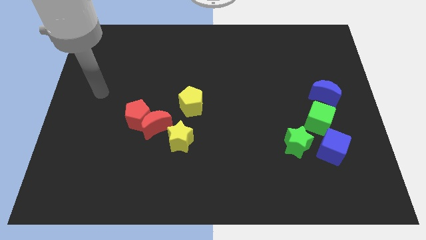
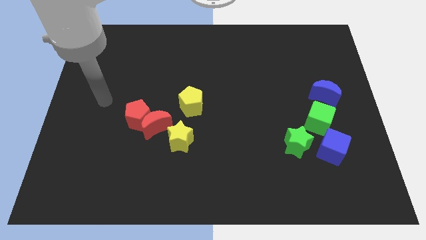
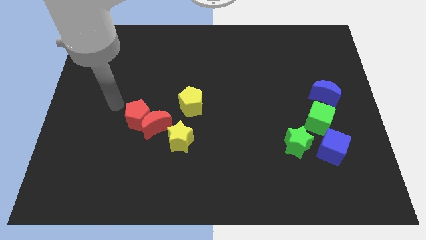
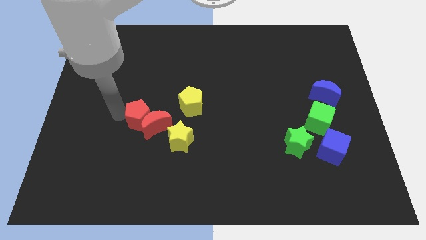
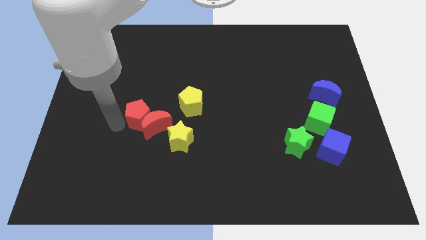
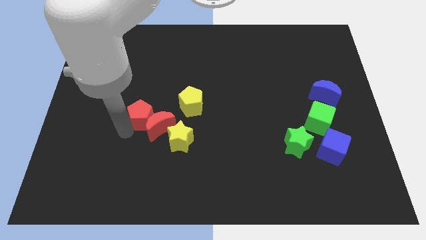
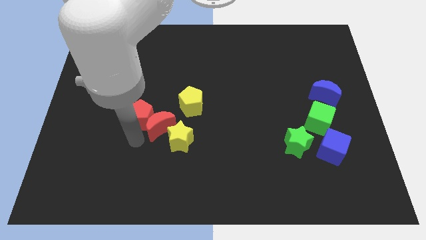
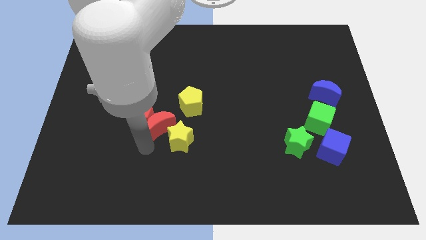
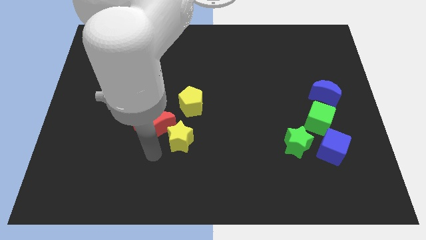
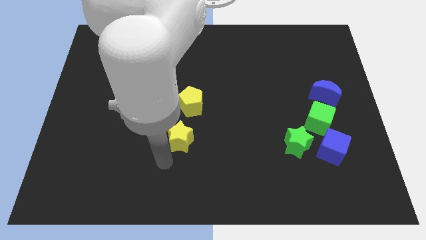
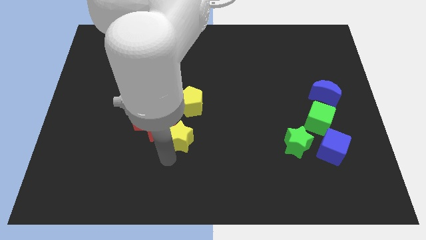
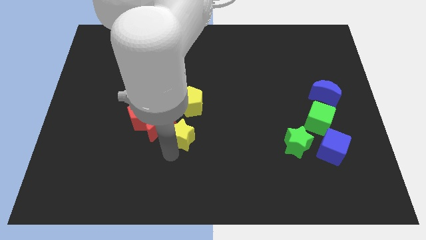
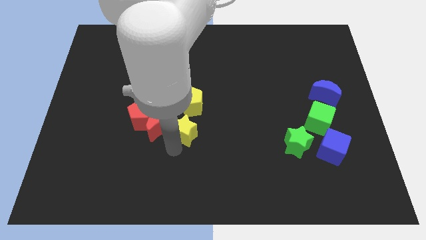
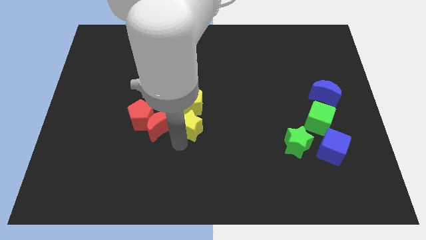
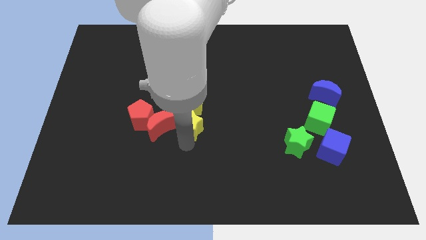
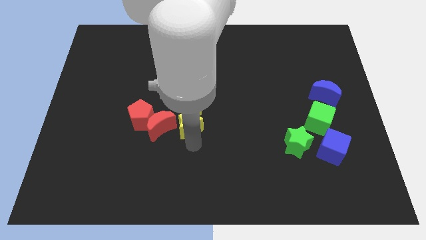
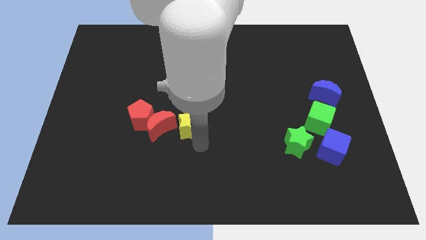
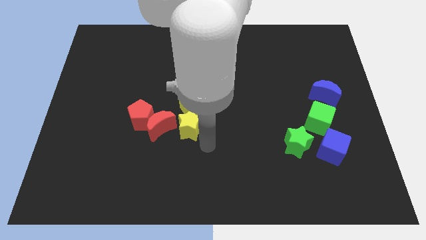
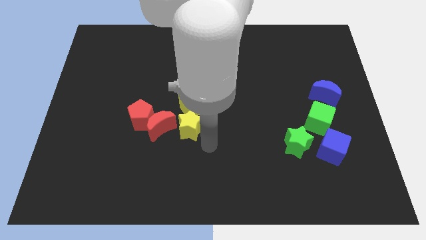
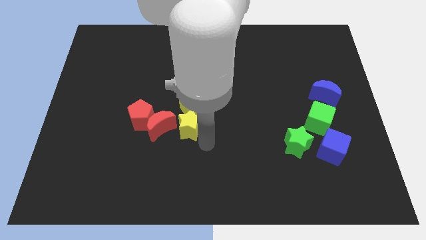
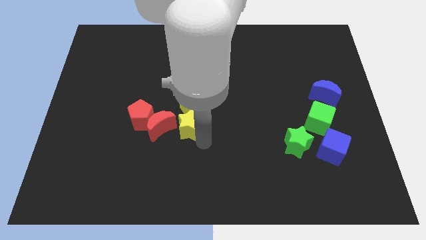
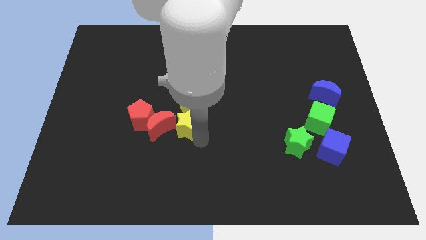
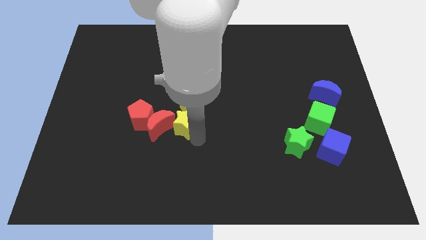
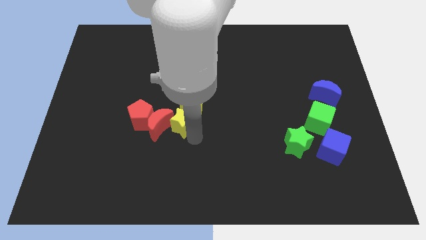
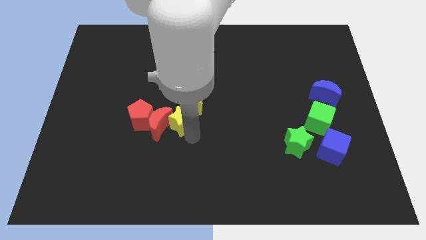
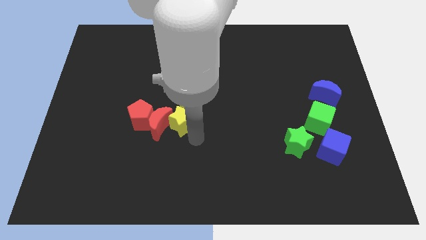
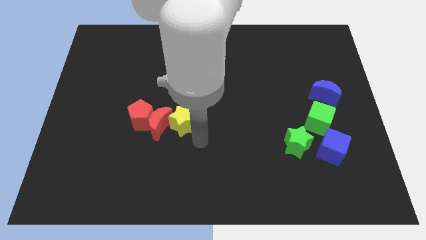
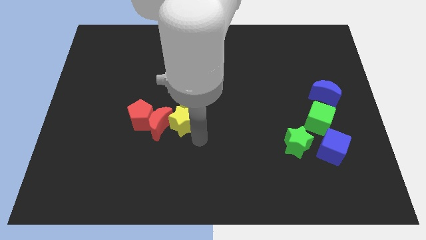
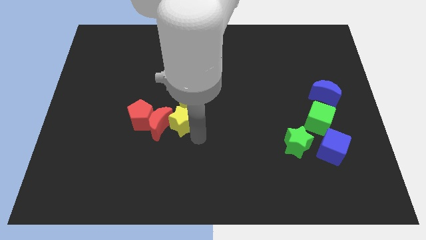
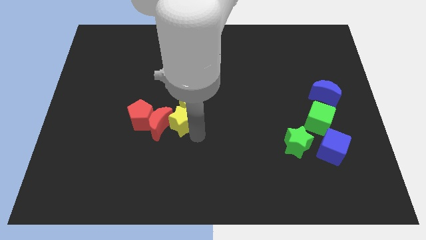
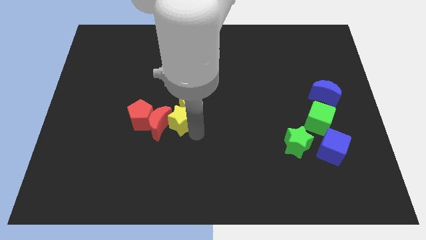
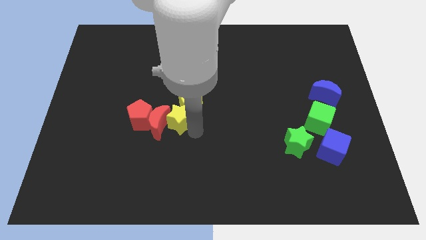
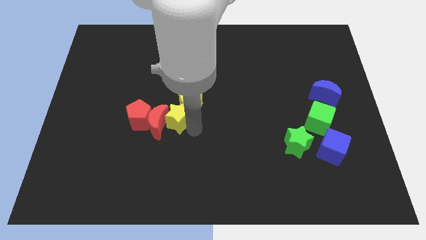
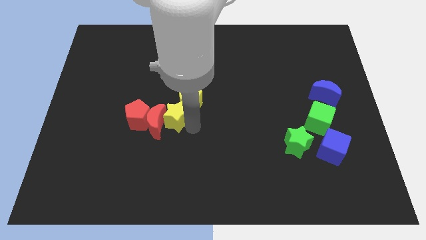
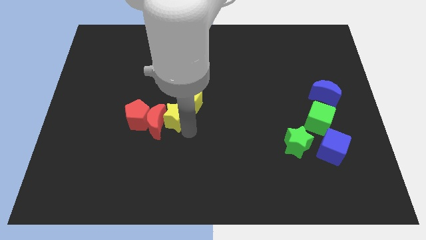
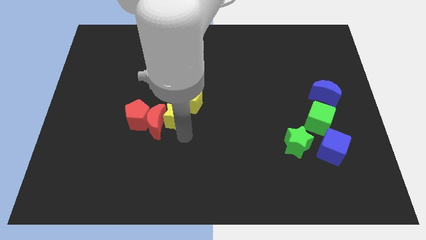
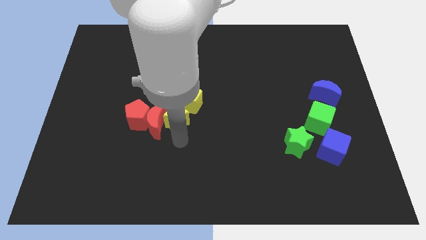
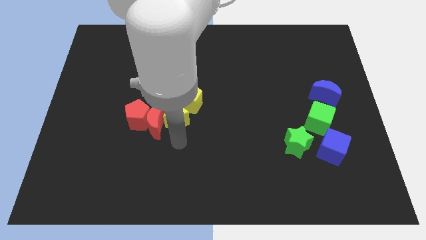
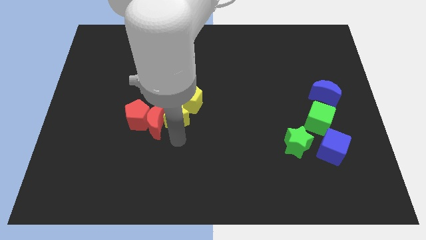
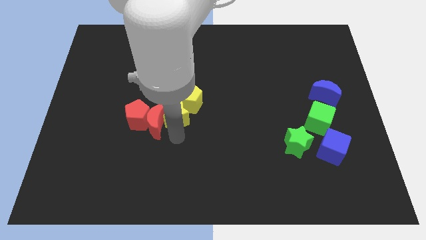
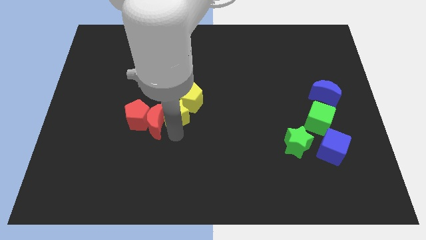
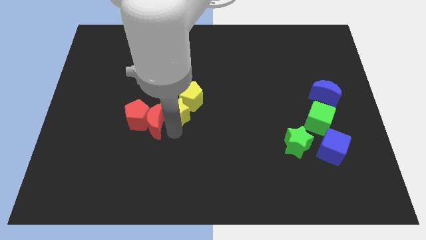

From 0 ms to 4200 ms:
move the yellow star up slightly

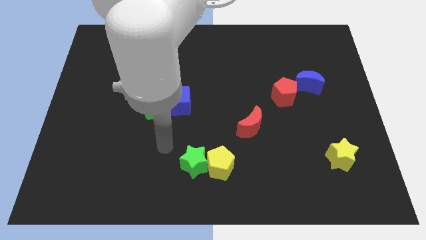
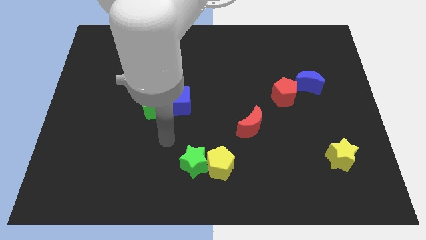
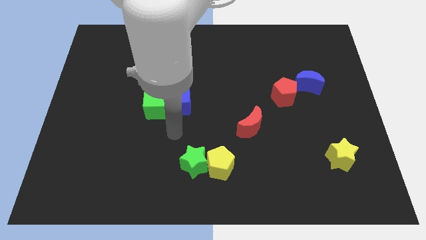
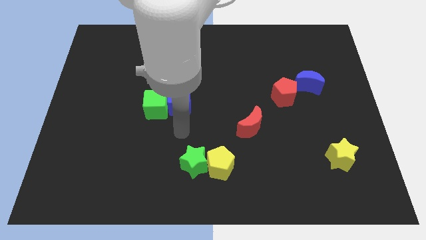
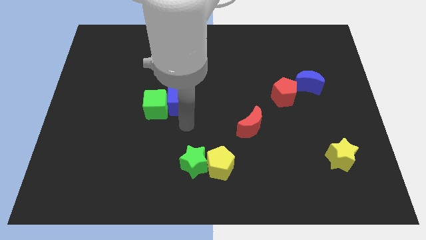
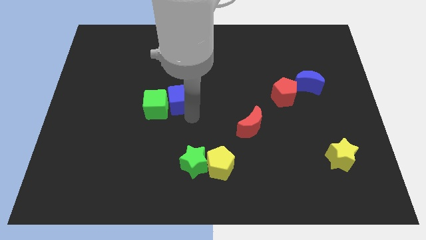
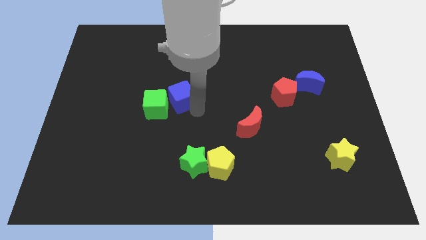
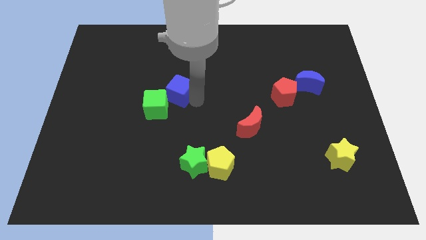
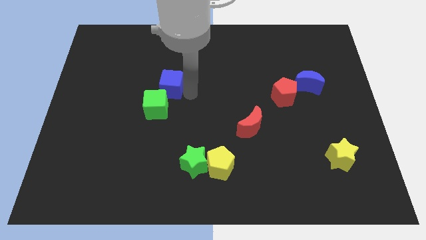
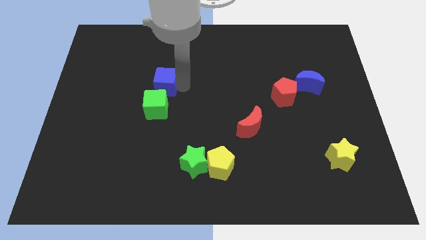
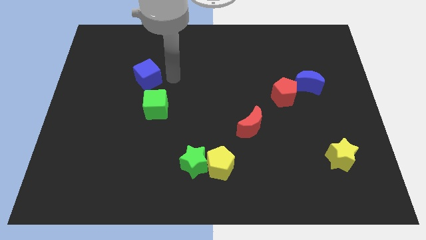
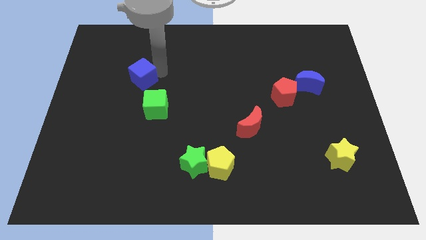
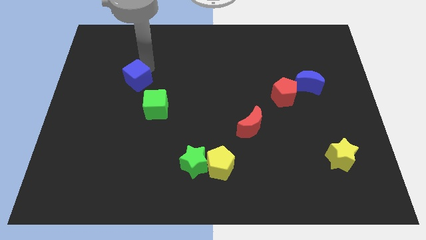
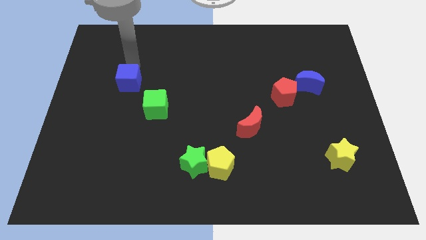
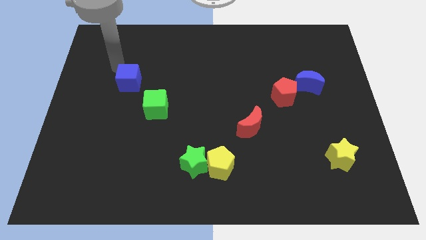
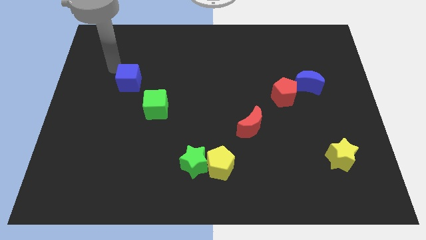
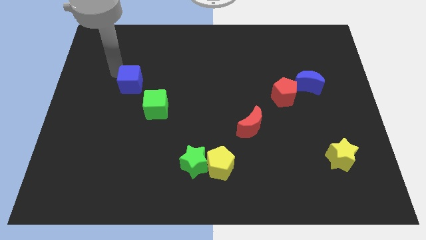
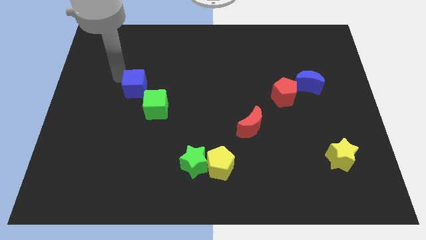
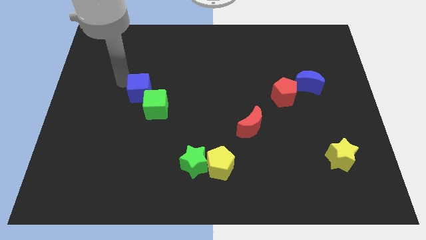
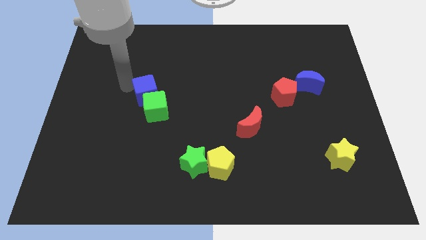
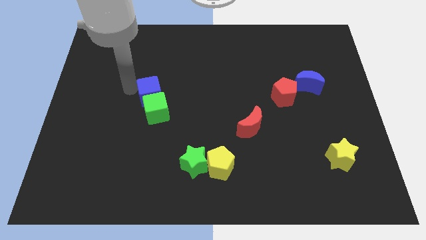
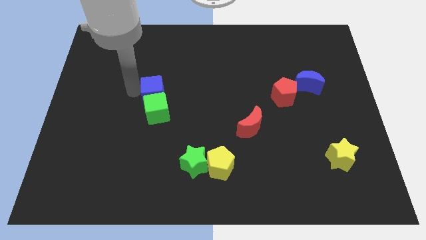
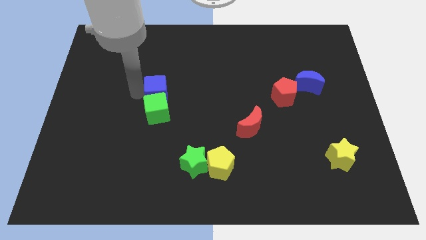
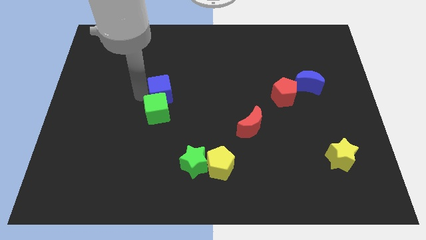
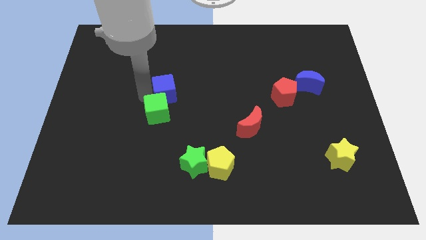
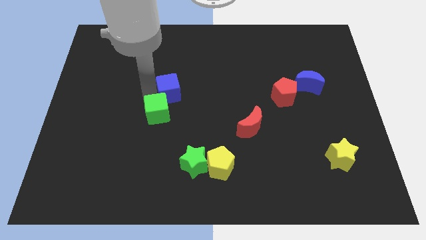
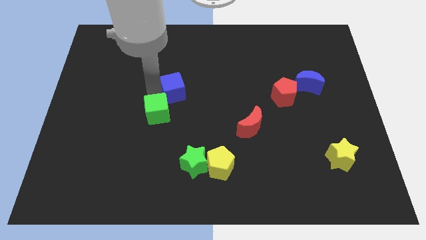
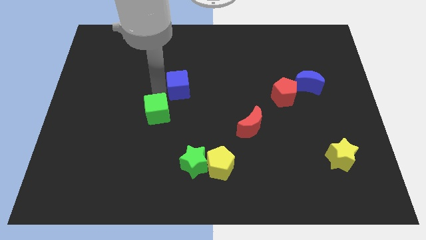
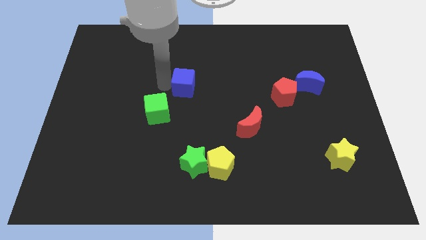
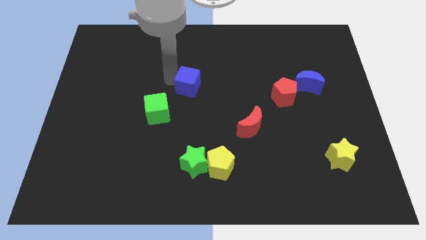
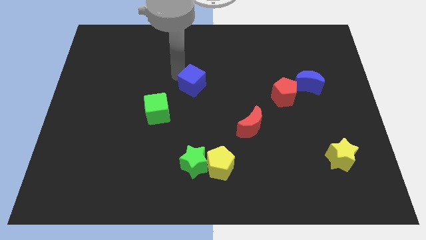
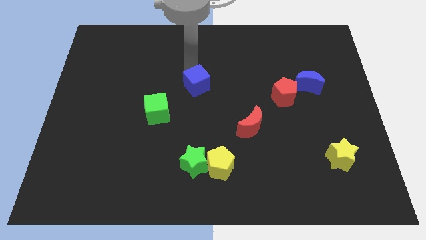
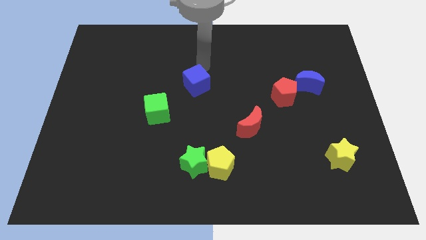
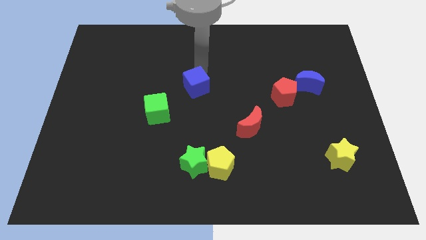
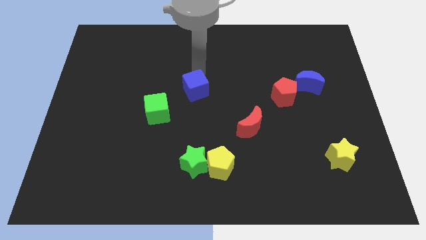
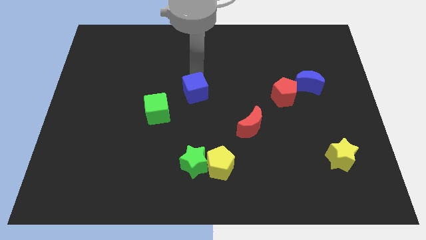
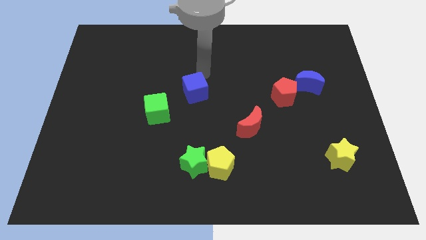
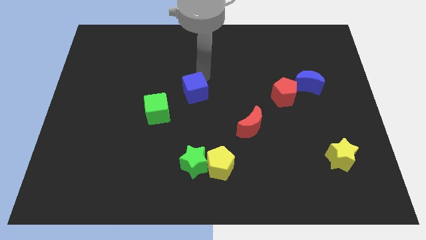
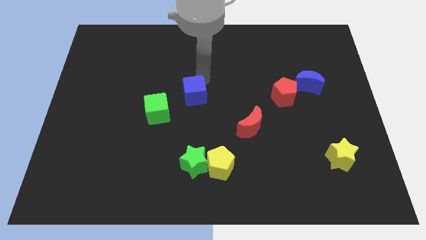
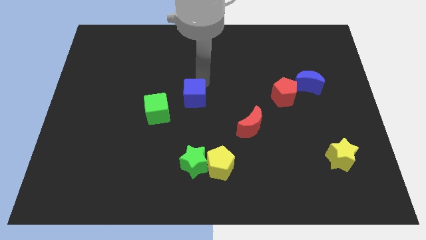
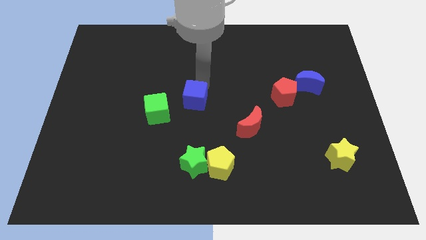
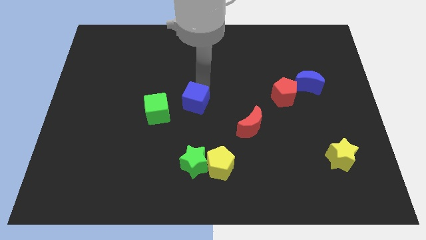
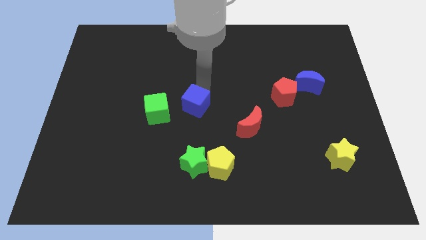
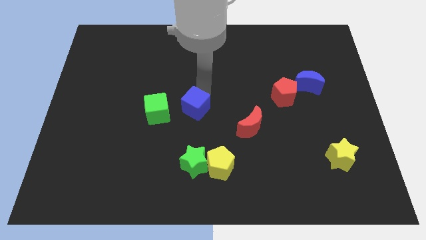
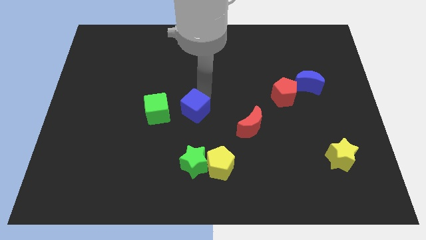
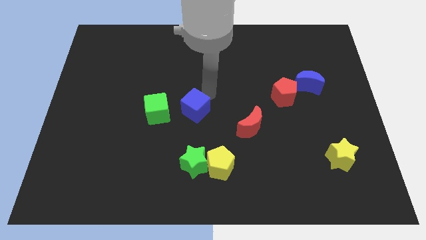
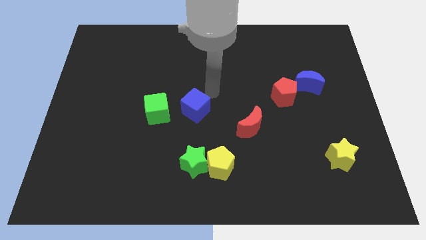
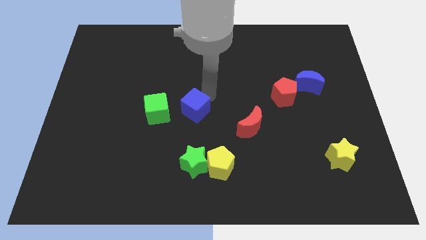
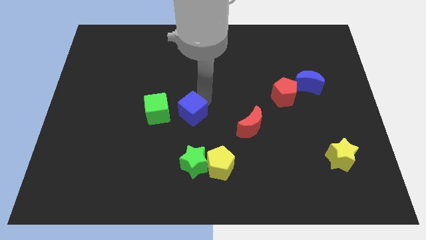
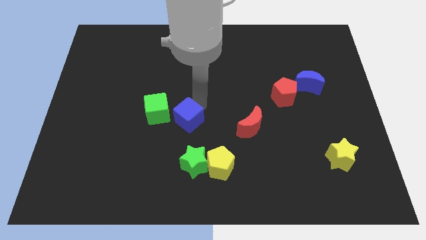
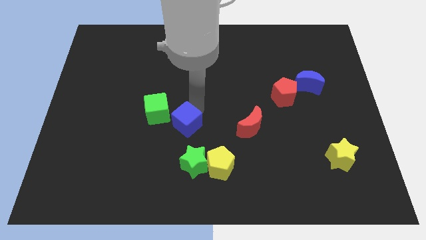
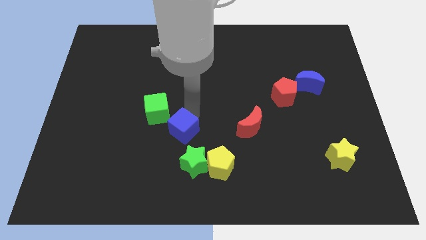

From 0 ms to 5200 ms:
slightly slide the blue cube downwards
